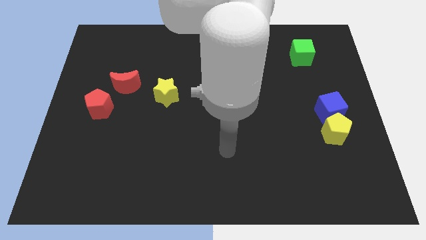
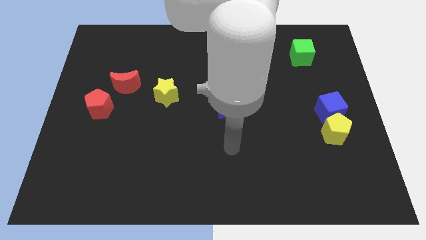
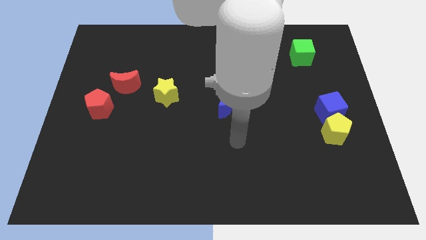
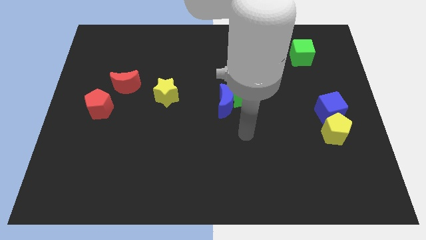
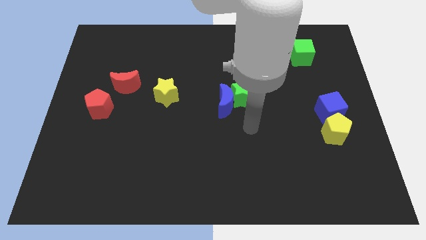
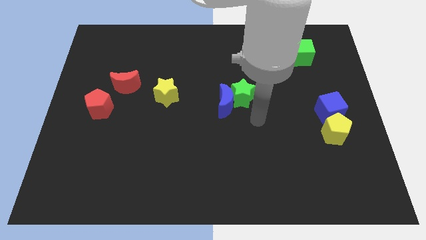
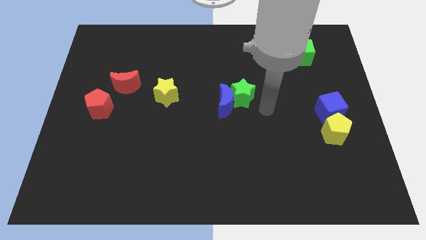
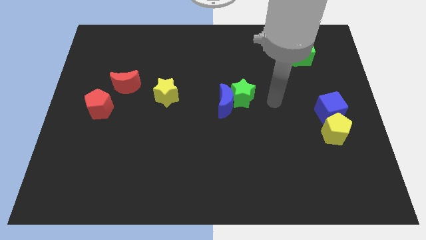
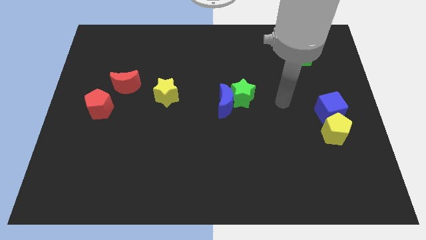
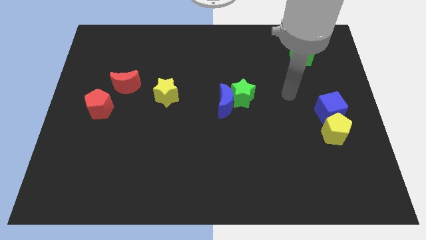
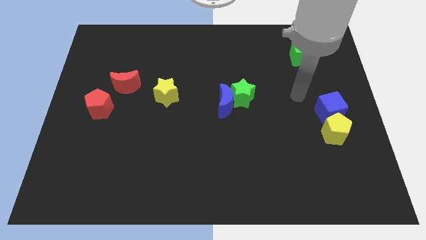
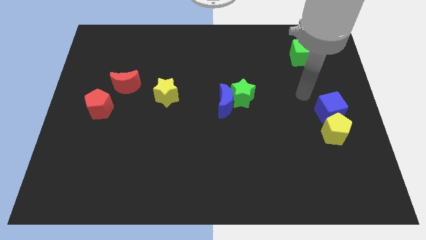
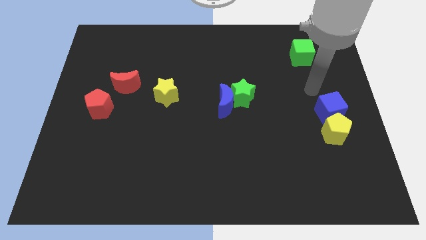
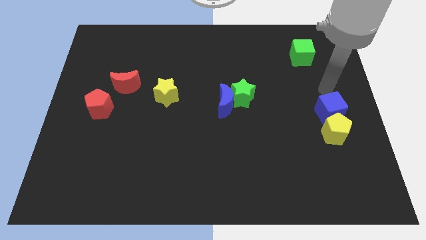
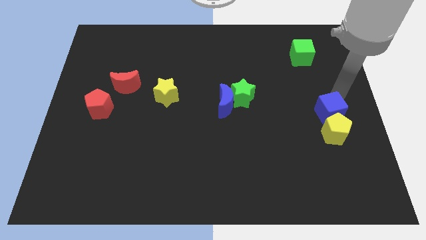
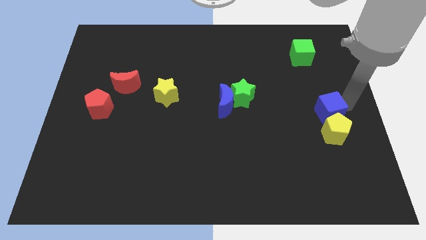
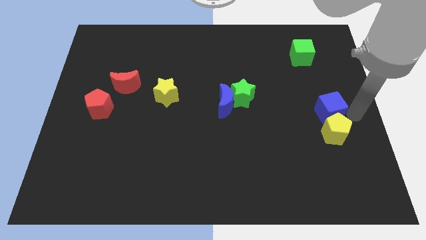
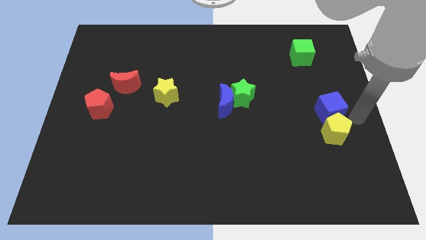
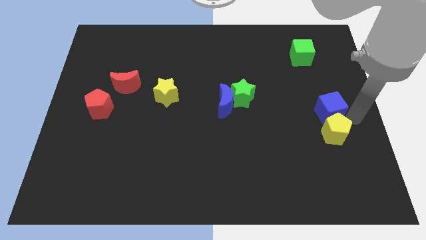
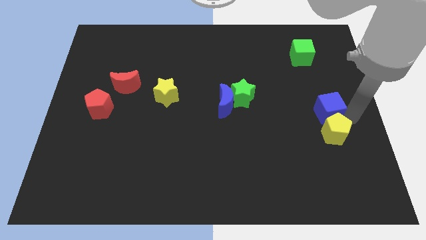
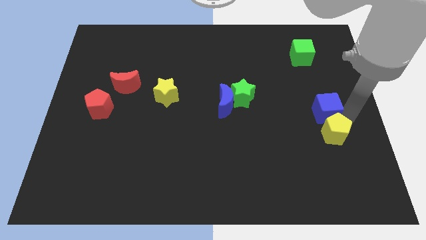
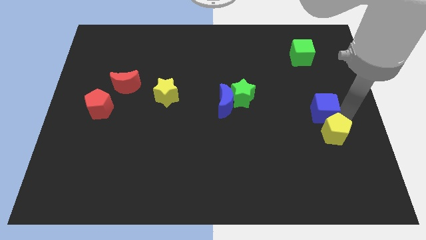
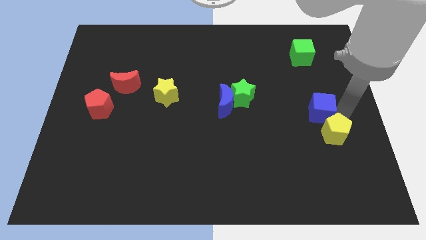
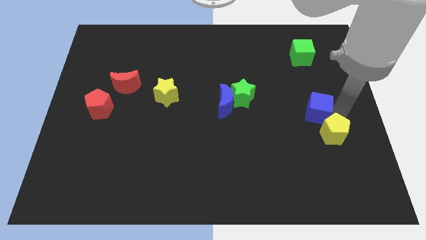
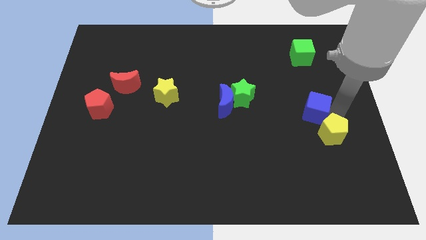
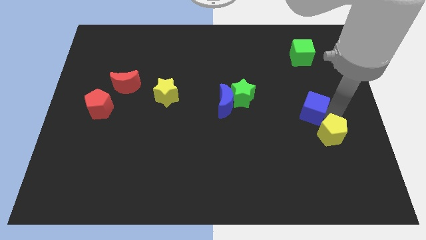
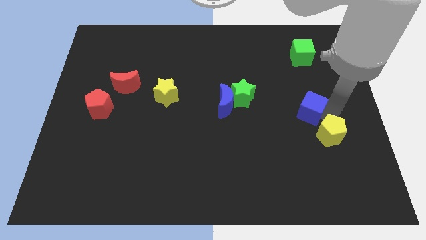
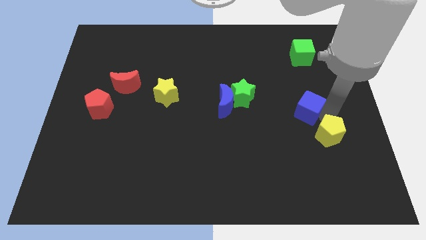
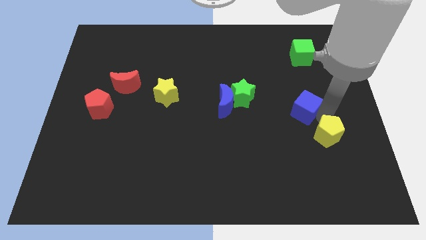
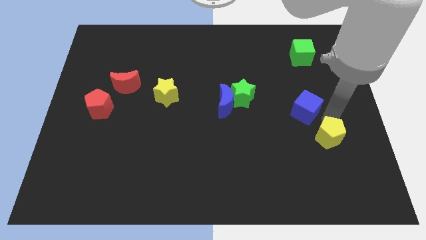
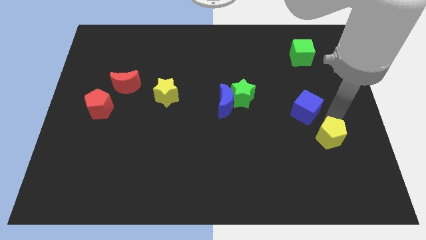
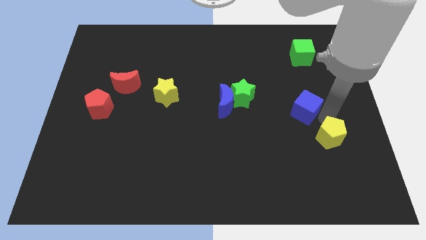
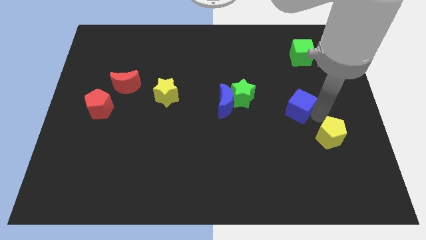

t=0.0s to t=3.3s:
move the blue cube to the left somewhat

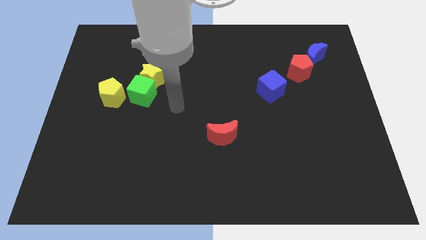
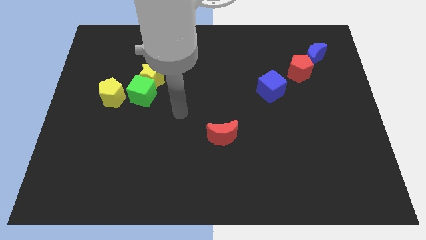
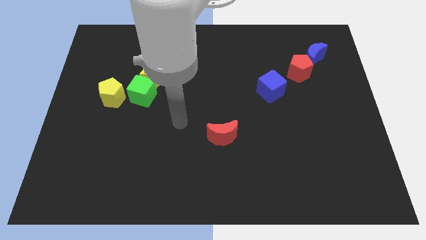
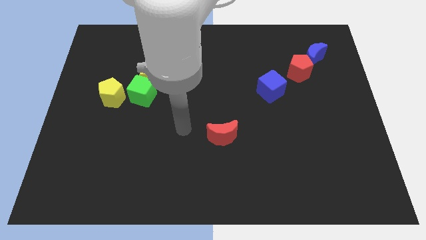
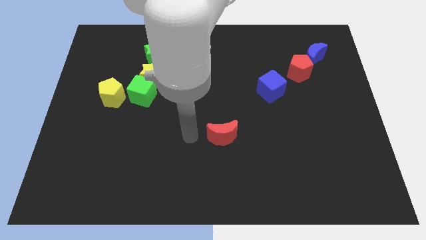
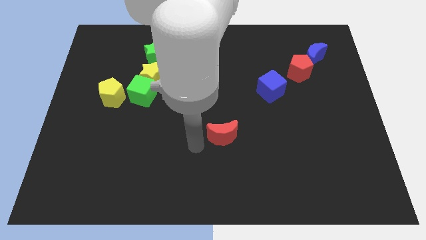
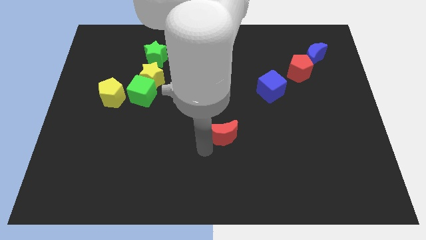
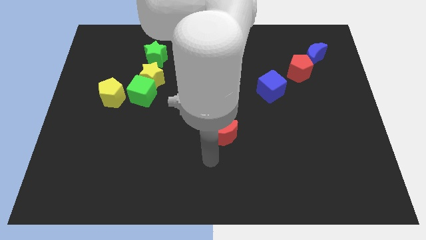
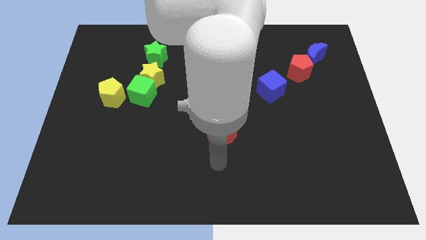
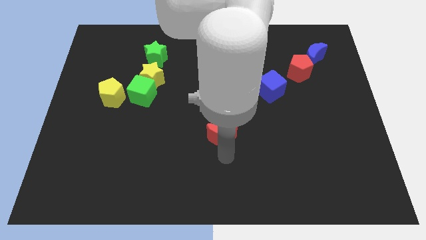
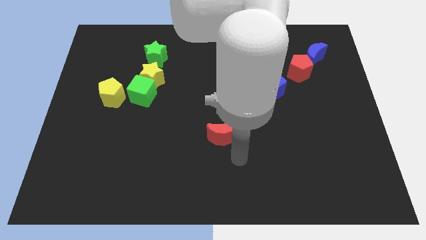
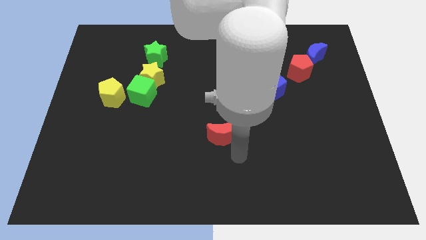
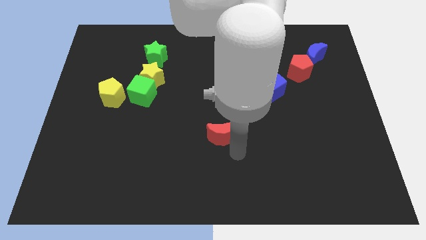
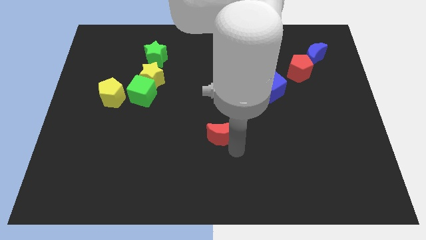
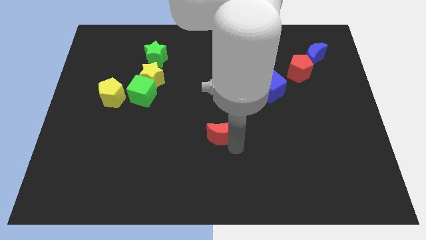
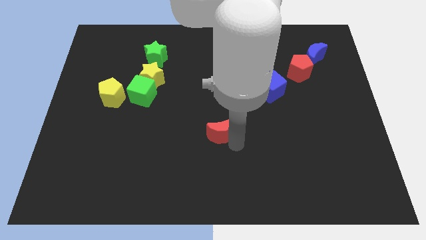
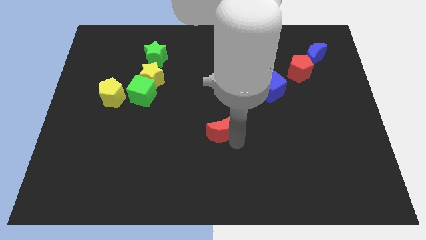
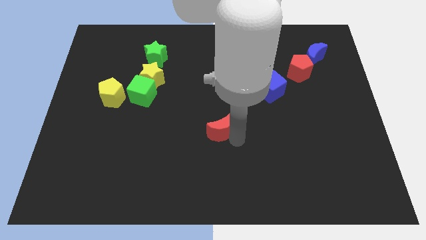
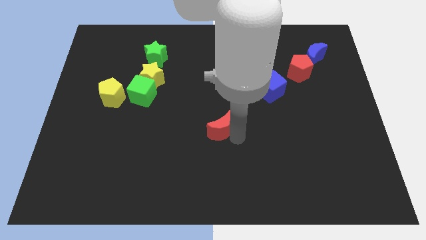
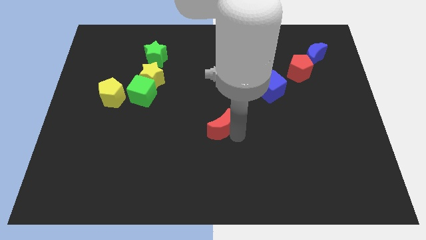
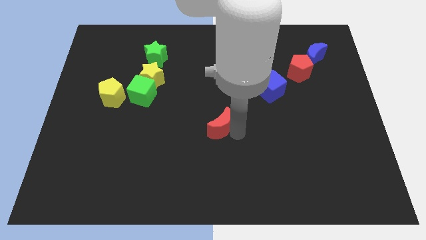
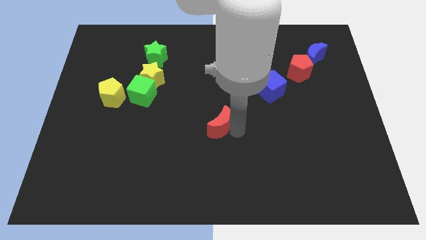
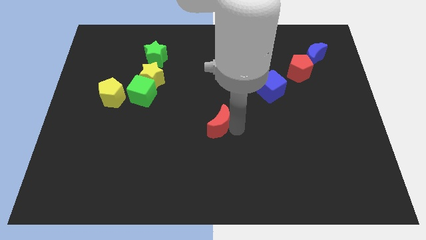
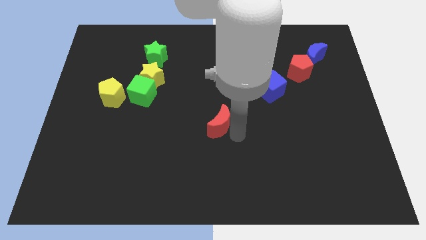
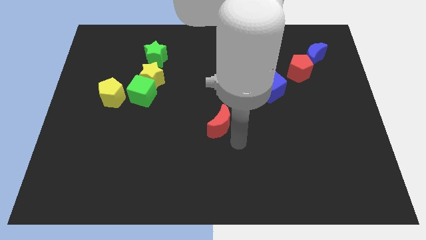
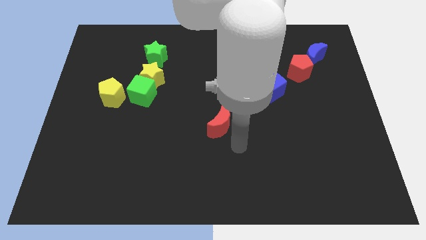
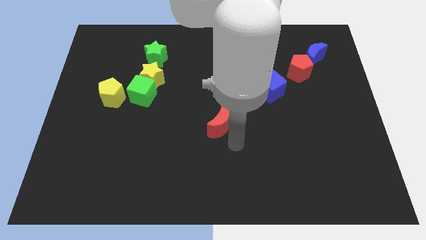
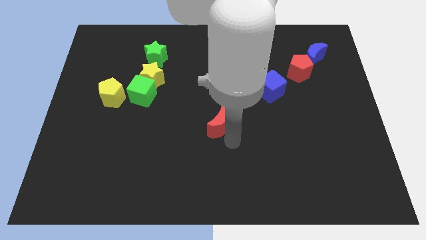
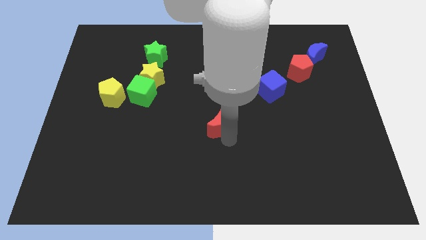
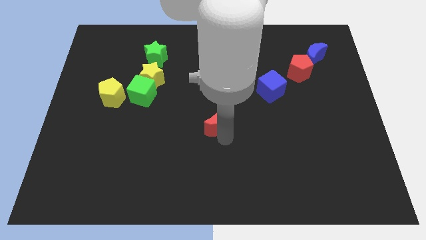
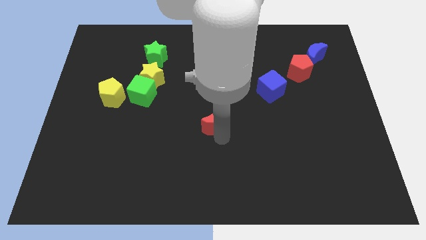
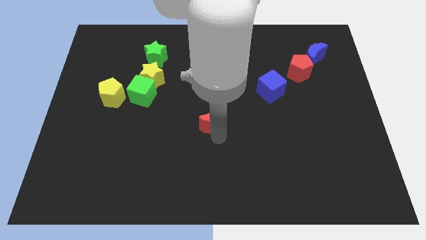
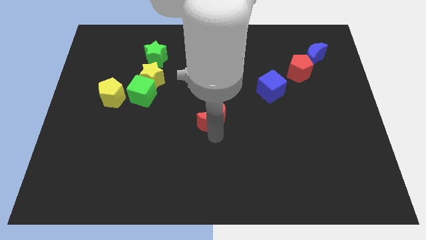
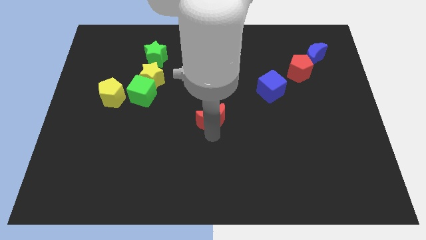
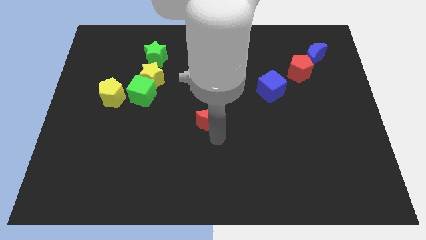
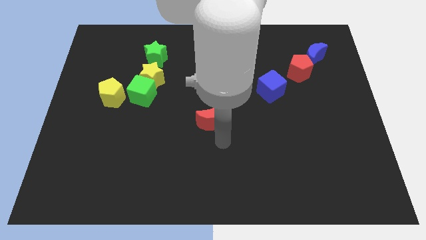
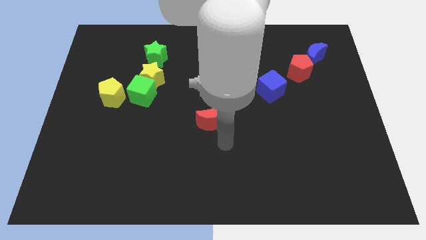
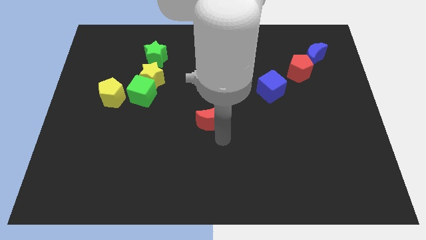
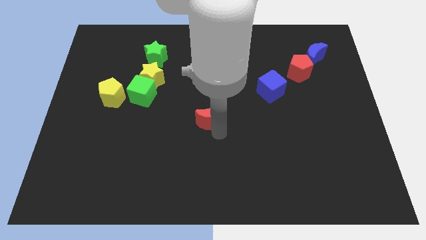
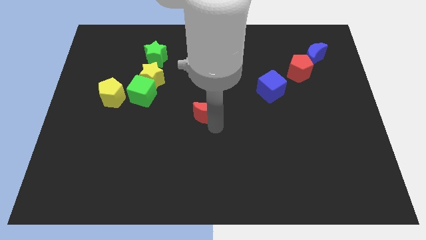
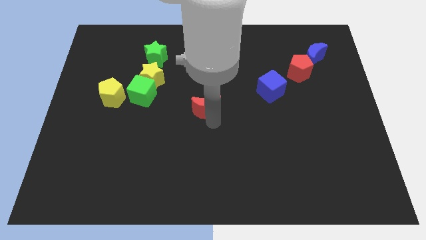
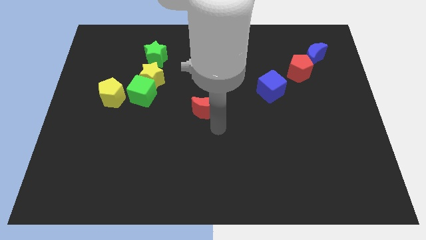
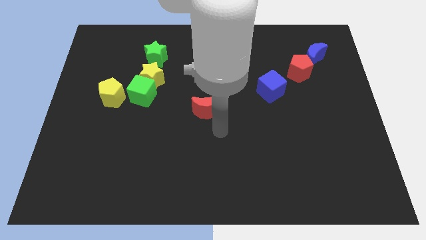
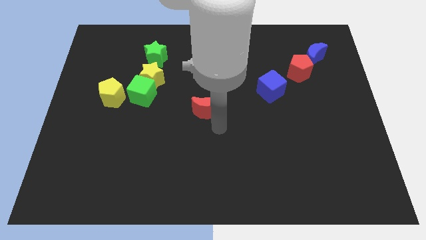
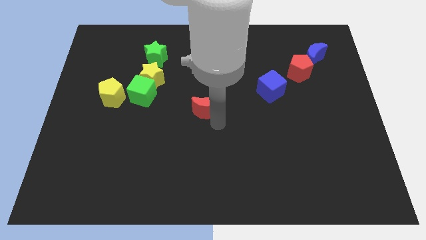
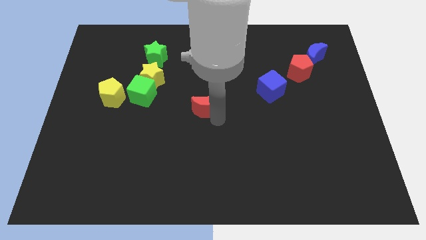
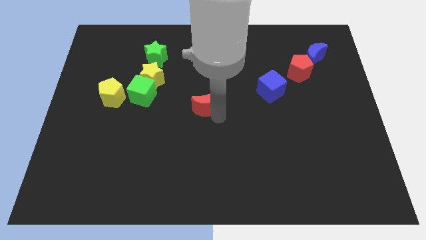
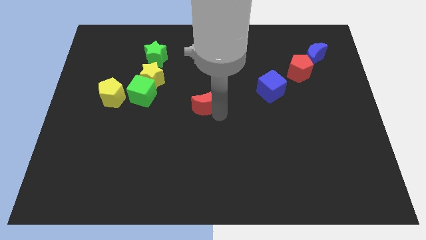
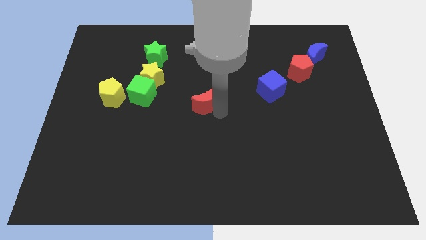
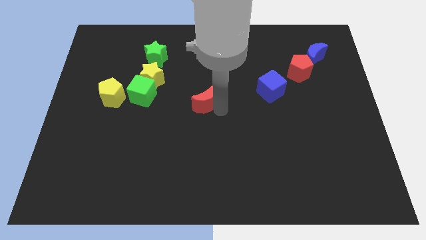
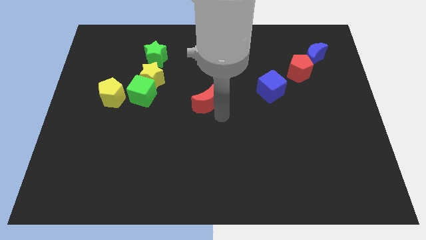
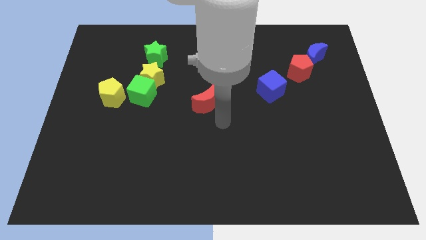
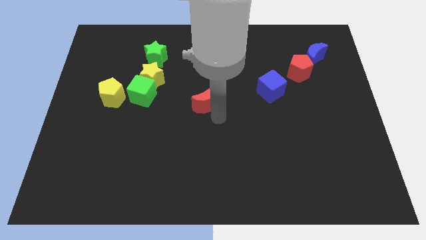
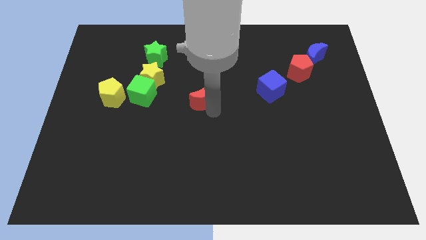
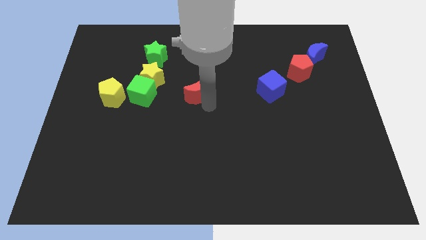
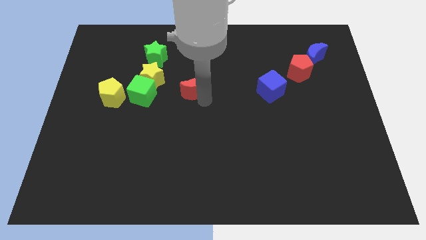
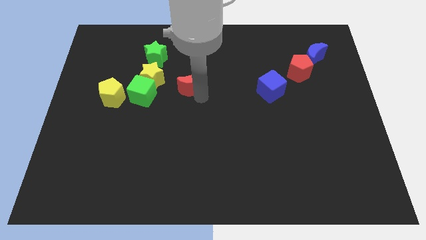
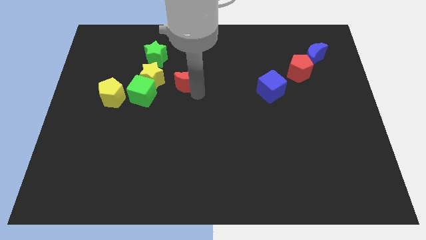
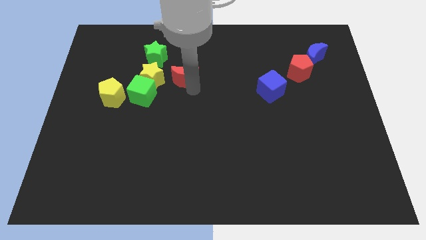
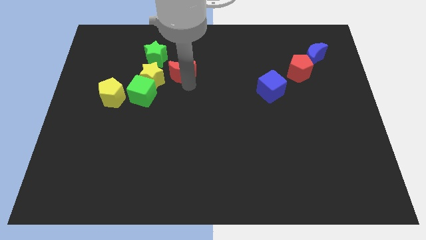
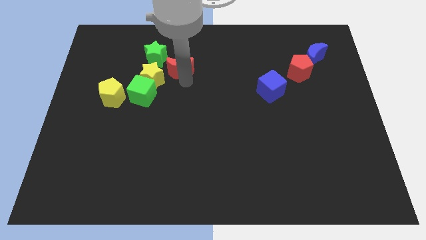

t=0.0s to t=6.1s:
slide the red moon diagonally upwards and left
